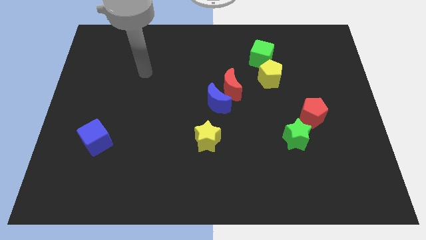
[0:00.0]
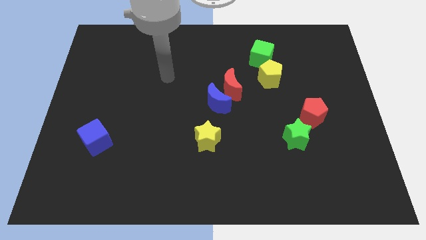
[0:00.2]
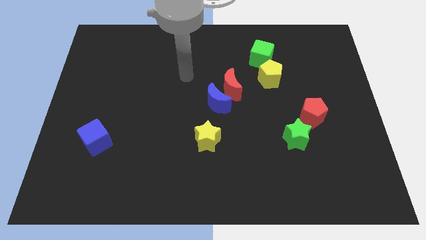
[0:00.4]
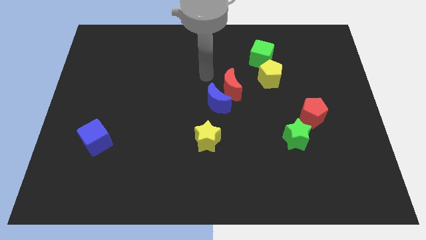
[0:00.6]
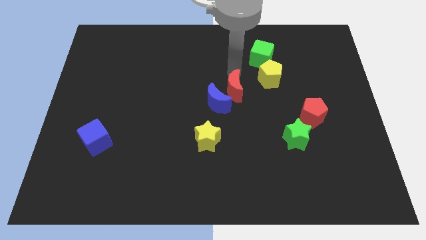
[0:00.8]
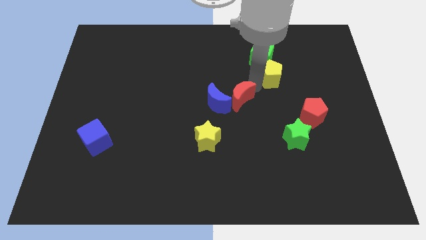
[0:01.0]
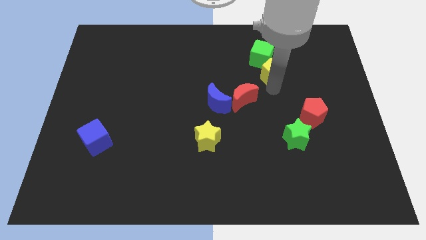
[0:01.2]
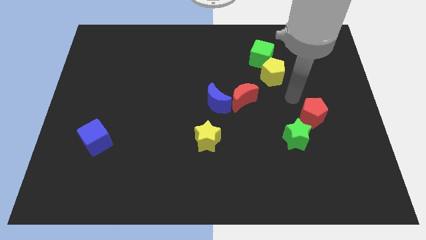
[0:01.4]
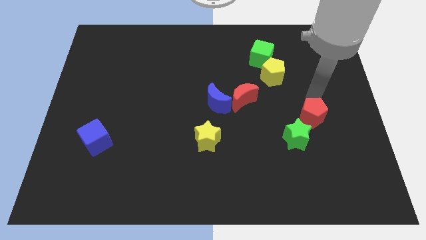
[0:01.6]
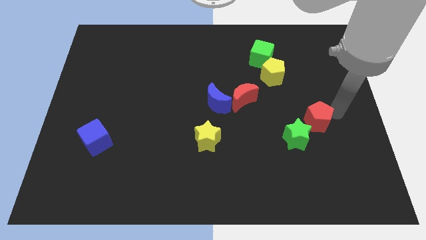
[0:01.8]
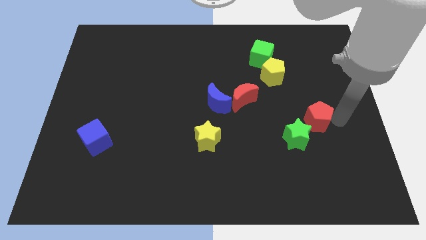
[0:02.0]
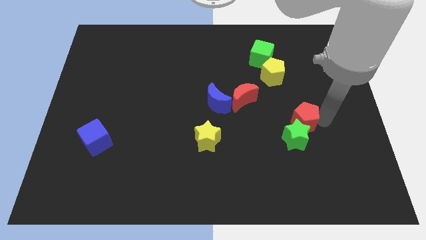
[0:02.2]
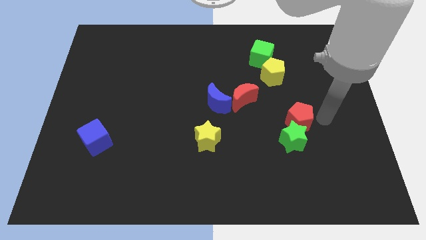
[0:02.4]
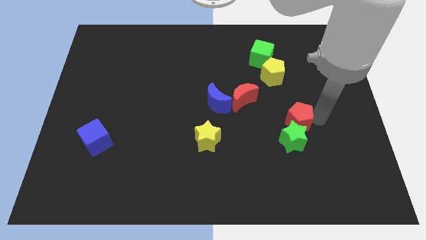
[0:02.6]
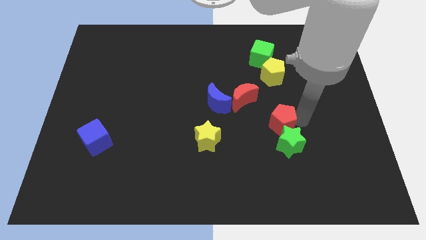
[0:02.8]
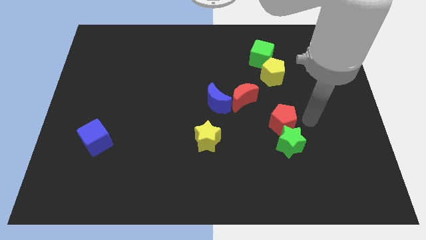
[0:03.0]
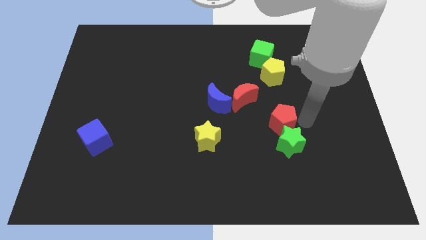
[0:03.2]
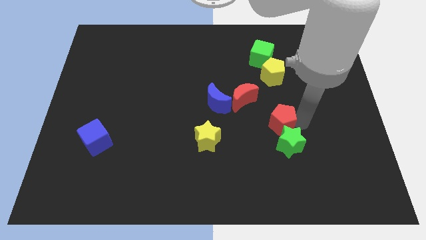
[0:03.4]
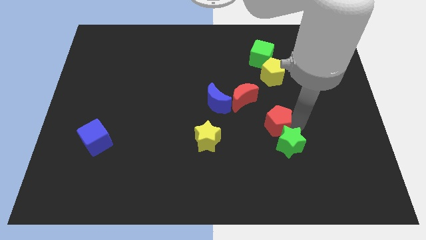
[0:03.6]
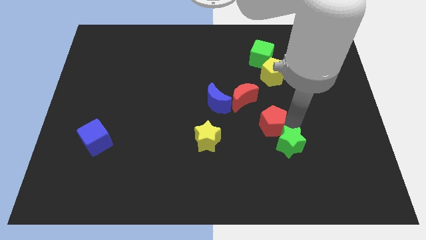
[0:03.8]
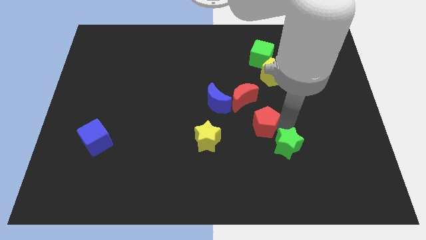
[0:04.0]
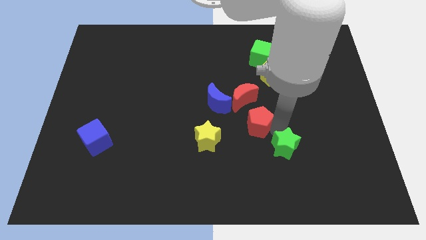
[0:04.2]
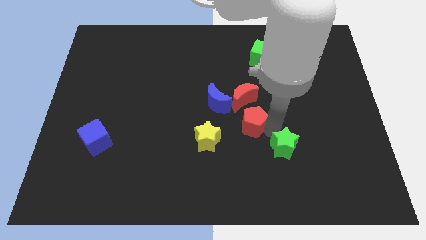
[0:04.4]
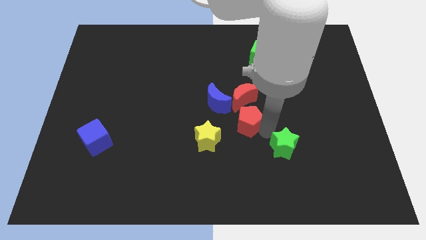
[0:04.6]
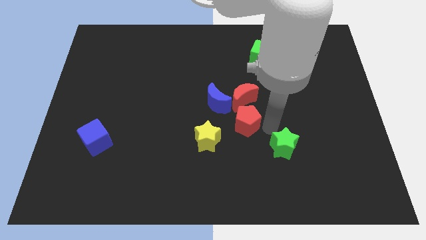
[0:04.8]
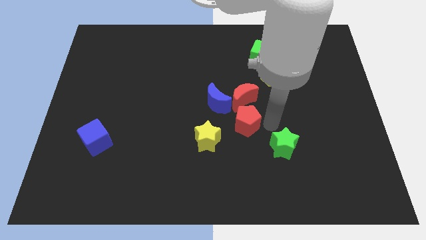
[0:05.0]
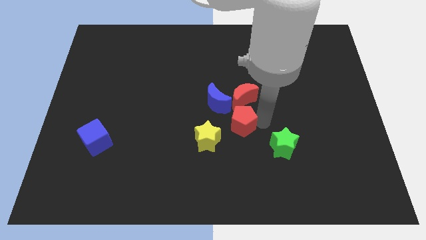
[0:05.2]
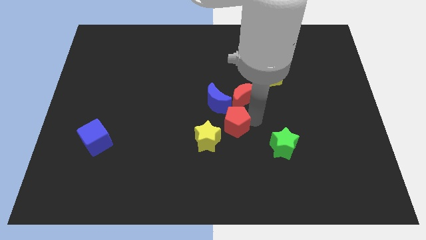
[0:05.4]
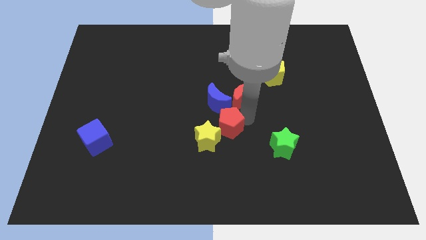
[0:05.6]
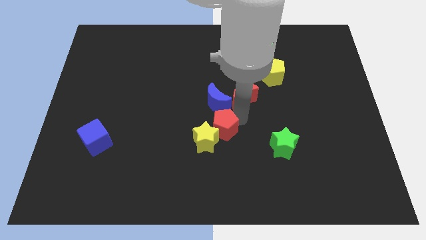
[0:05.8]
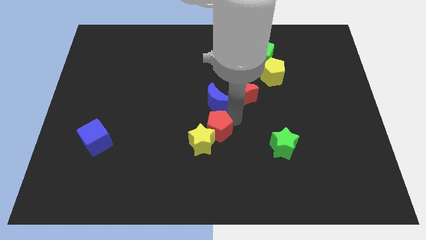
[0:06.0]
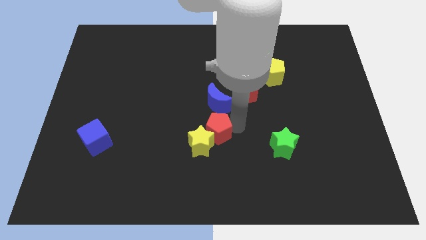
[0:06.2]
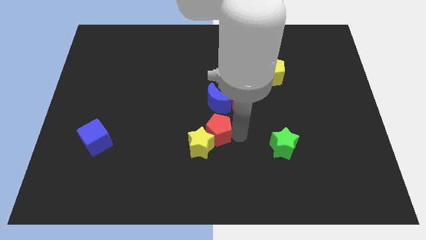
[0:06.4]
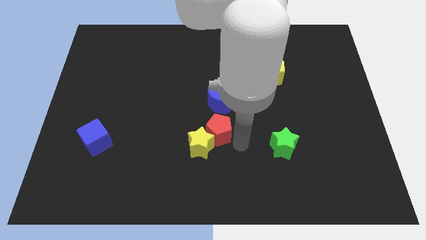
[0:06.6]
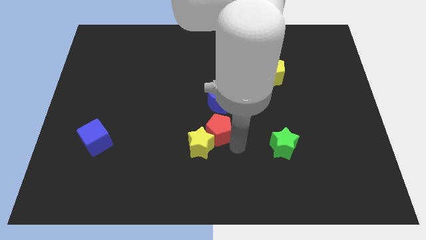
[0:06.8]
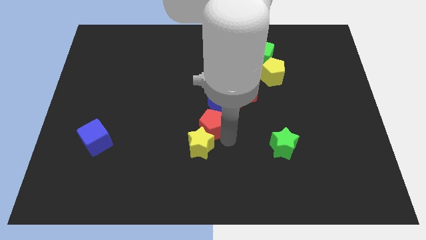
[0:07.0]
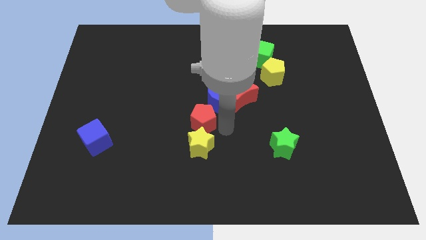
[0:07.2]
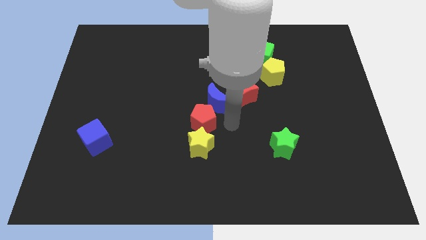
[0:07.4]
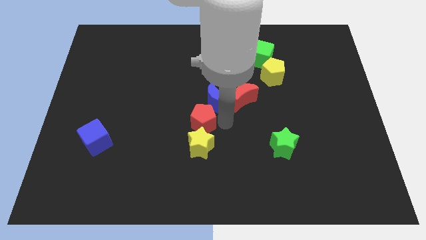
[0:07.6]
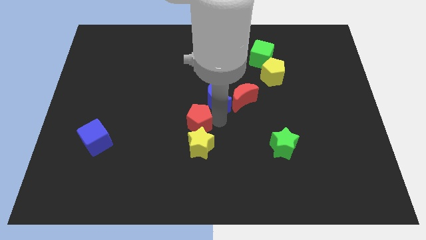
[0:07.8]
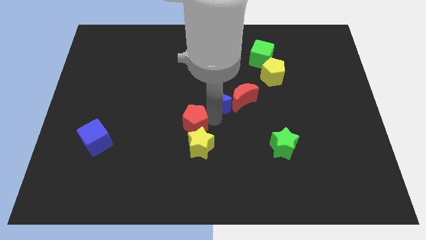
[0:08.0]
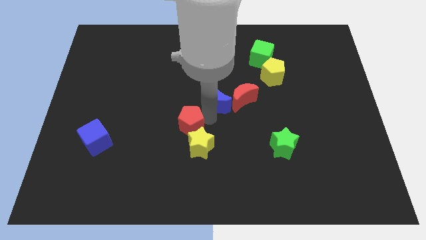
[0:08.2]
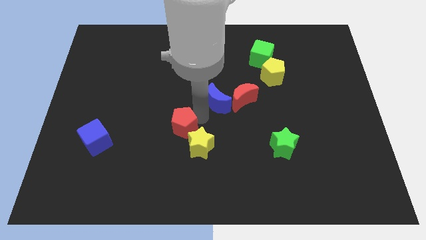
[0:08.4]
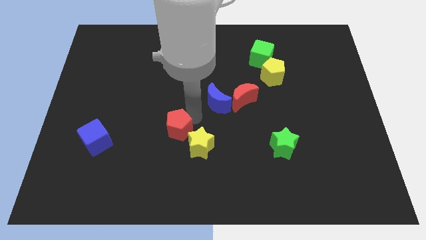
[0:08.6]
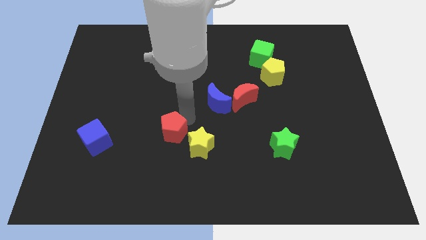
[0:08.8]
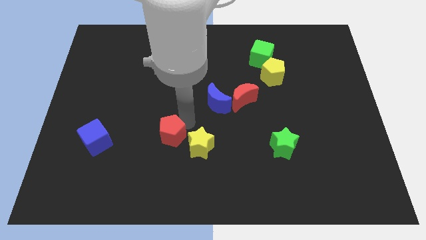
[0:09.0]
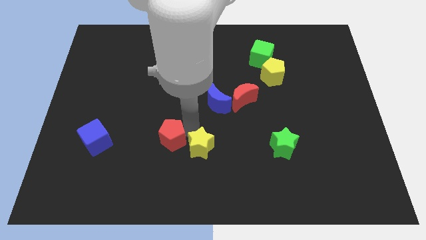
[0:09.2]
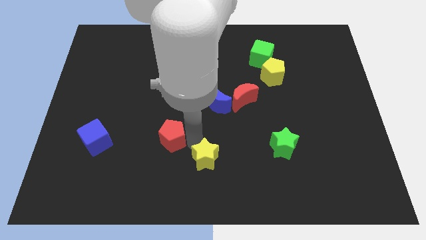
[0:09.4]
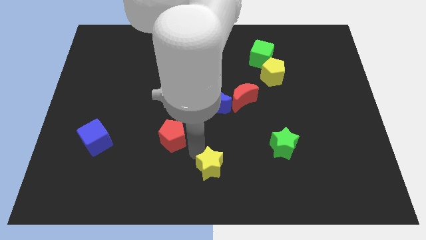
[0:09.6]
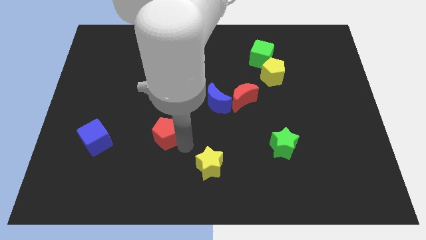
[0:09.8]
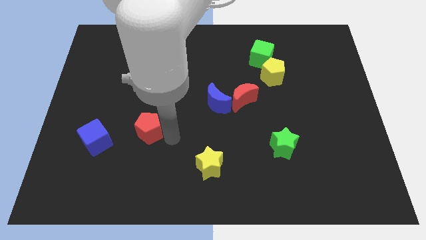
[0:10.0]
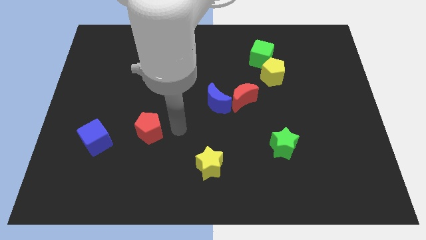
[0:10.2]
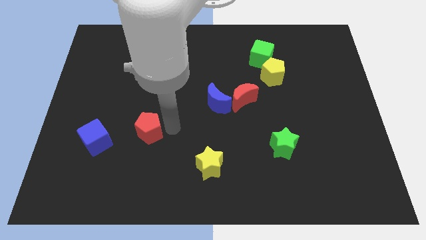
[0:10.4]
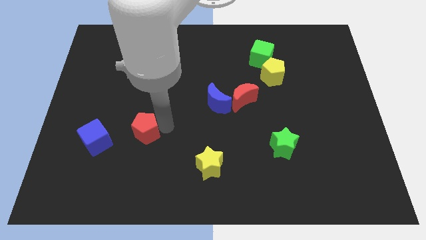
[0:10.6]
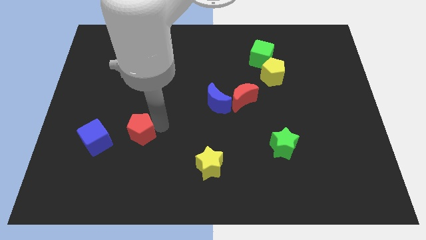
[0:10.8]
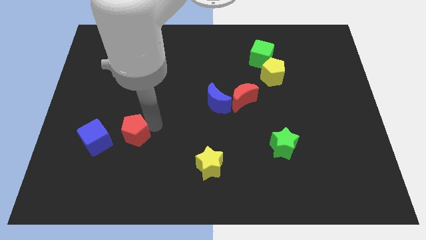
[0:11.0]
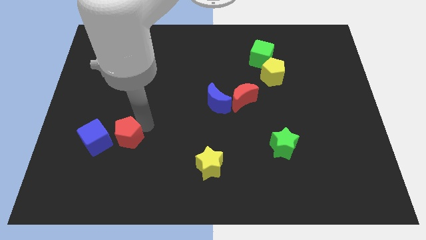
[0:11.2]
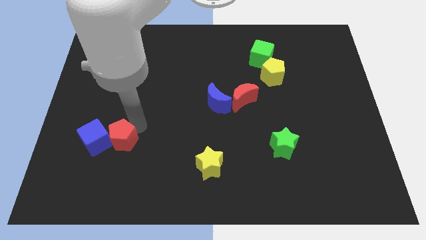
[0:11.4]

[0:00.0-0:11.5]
slide the red pentagon to the blue cube

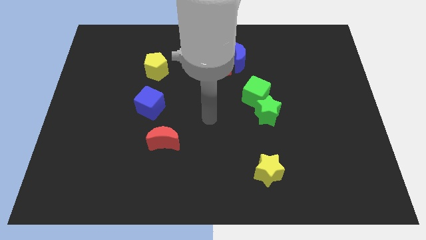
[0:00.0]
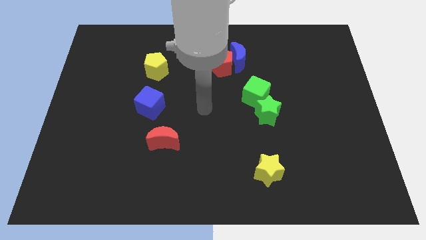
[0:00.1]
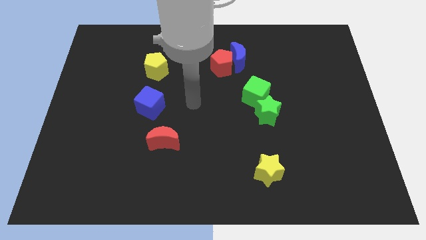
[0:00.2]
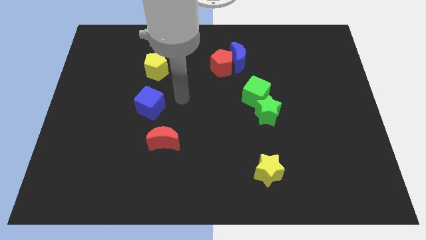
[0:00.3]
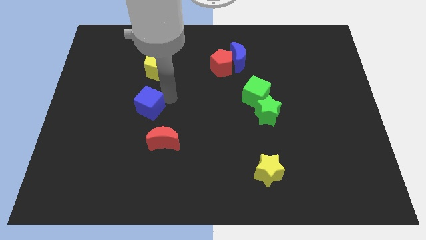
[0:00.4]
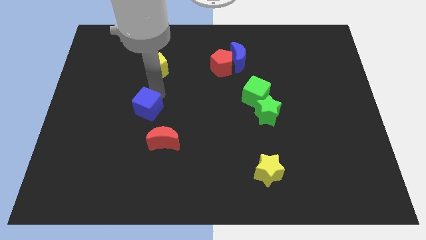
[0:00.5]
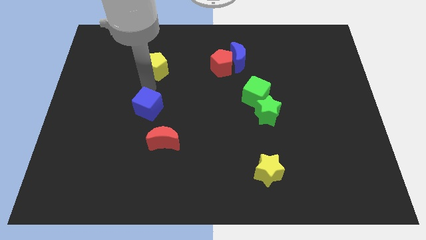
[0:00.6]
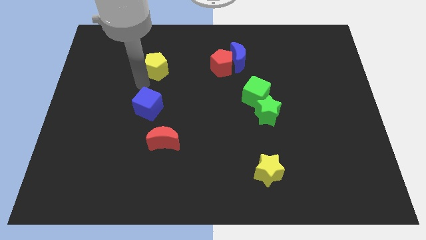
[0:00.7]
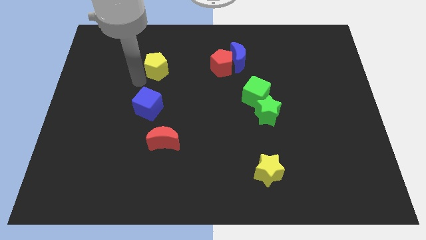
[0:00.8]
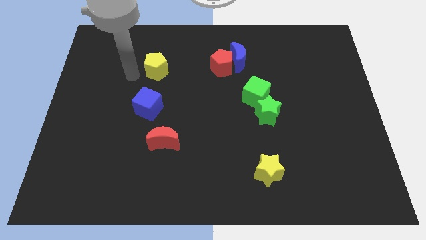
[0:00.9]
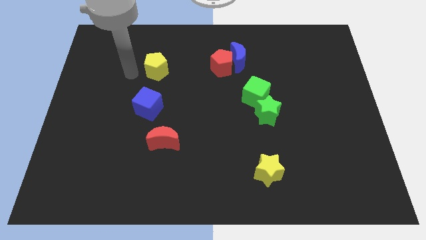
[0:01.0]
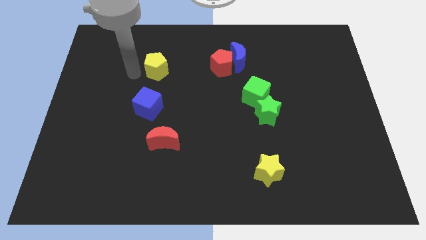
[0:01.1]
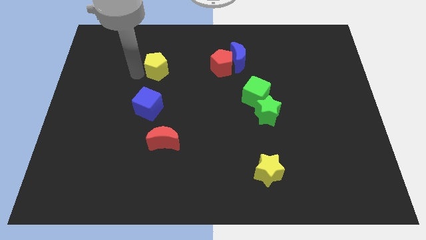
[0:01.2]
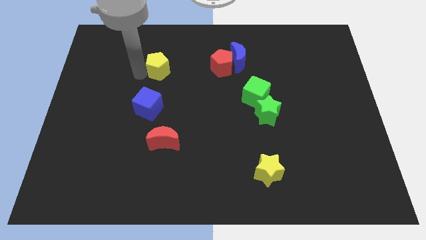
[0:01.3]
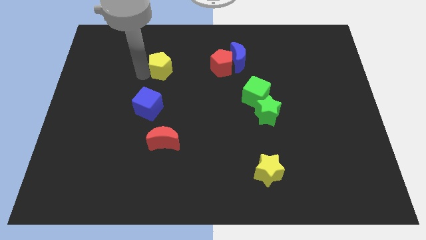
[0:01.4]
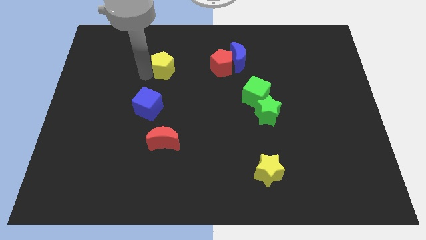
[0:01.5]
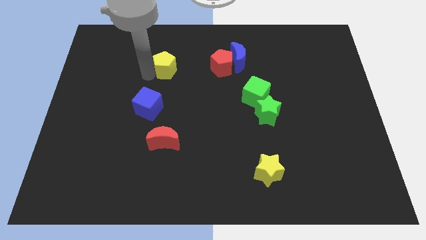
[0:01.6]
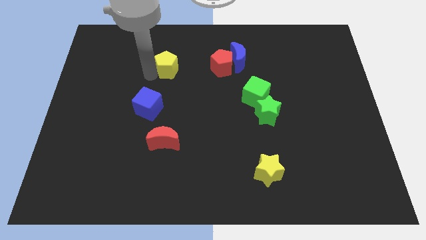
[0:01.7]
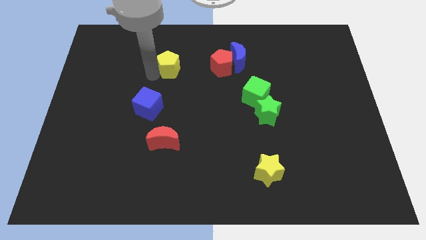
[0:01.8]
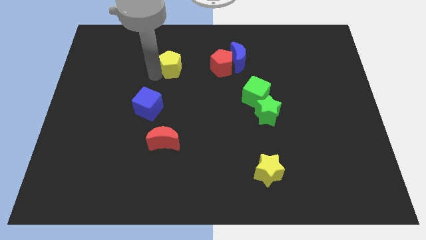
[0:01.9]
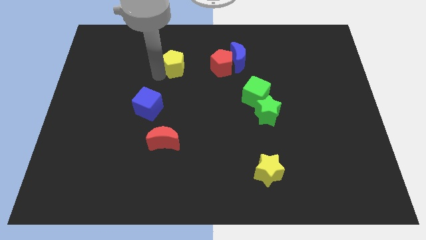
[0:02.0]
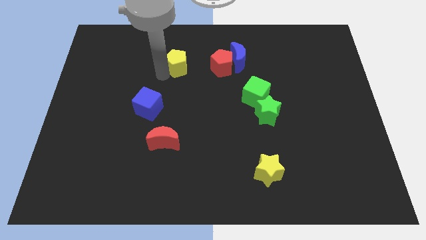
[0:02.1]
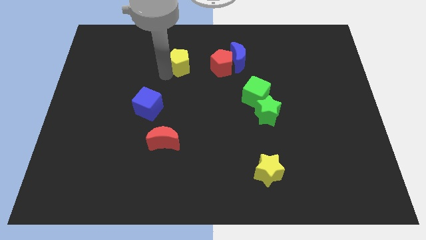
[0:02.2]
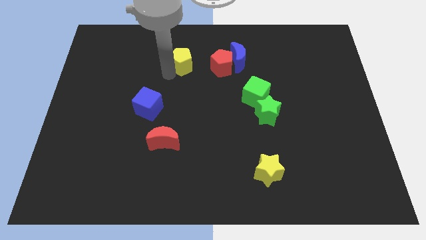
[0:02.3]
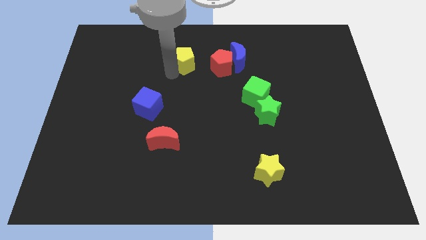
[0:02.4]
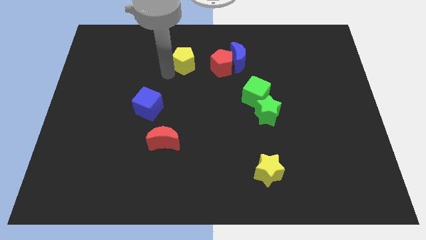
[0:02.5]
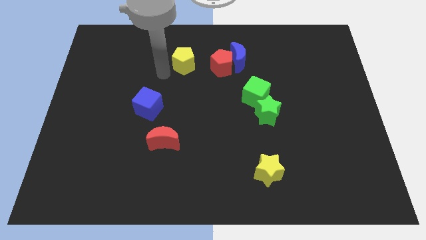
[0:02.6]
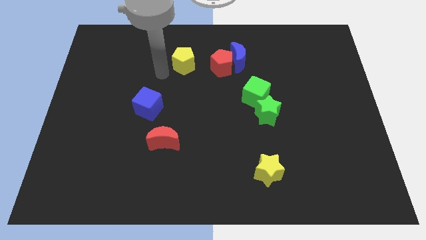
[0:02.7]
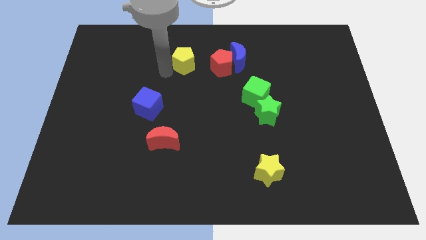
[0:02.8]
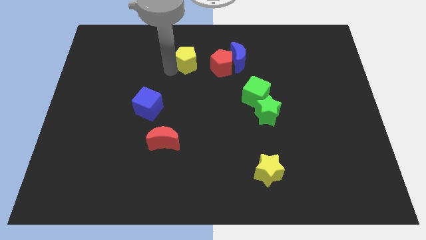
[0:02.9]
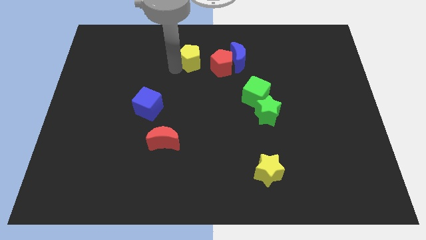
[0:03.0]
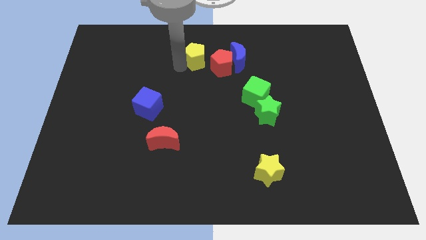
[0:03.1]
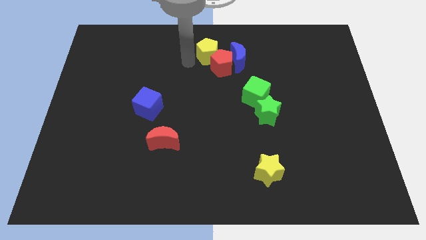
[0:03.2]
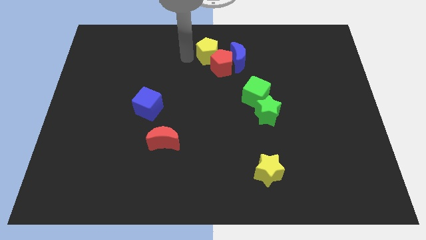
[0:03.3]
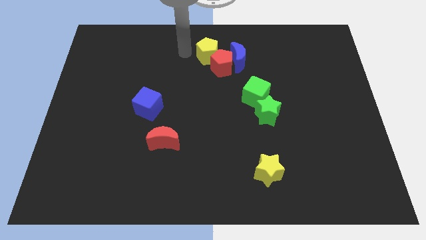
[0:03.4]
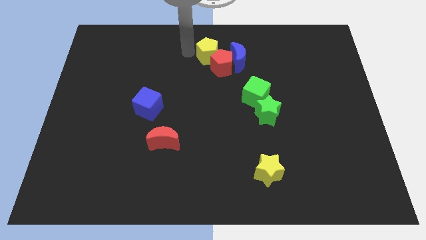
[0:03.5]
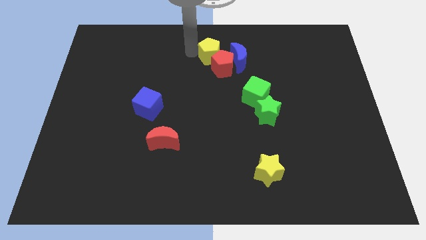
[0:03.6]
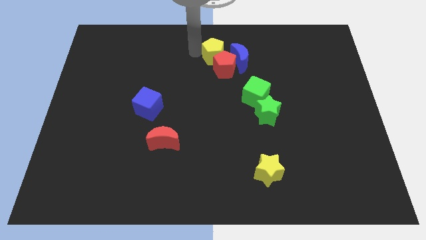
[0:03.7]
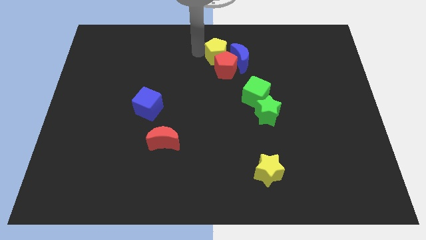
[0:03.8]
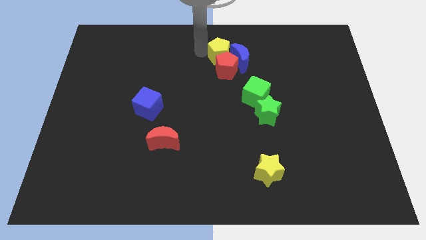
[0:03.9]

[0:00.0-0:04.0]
push the yellow pentagon to the blue moon
